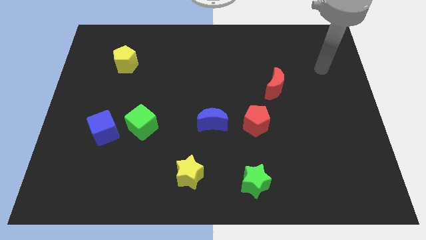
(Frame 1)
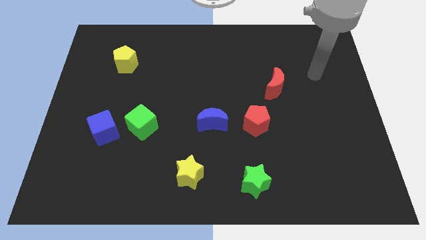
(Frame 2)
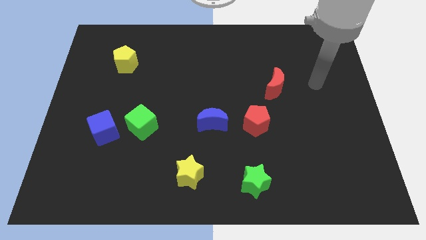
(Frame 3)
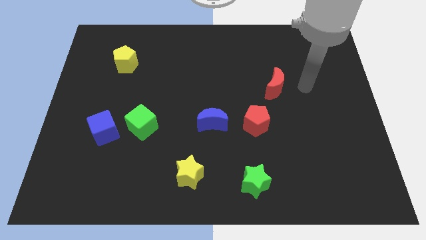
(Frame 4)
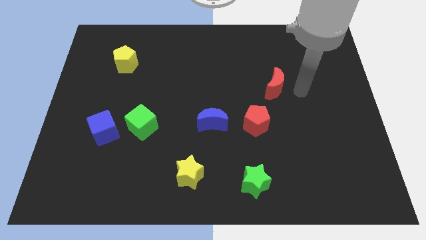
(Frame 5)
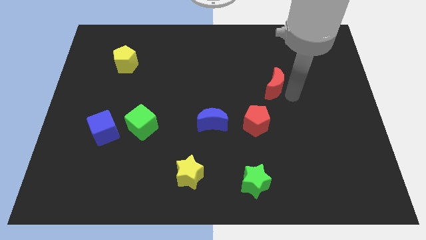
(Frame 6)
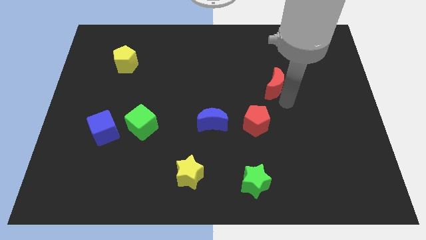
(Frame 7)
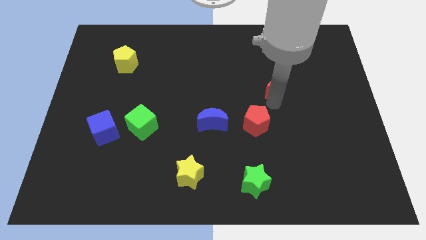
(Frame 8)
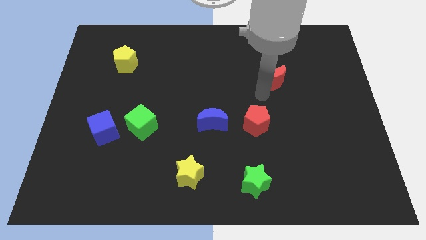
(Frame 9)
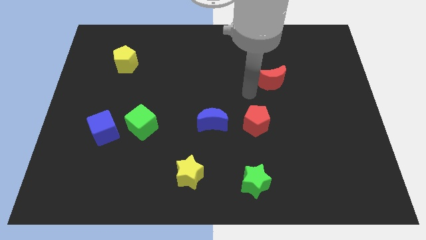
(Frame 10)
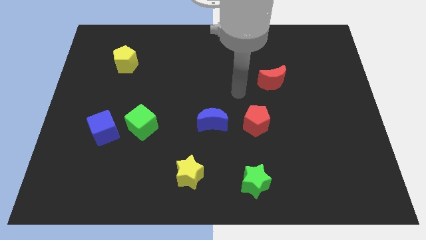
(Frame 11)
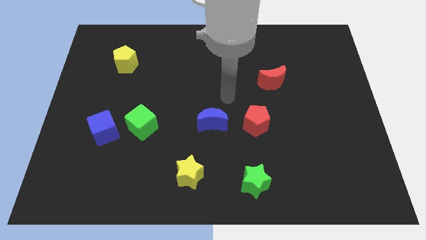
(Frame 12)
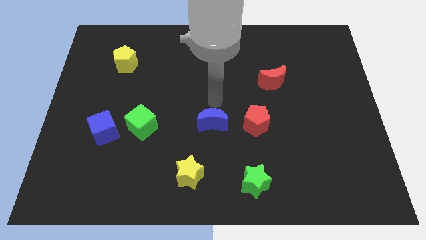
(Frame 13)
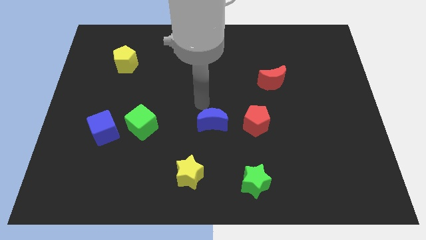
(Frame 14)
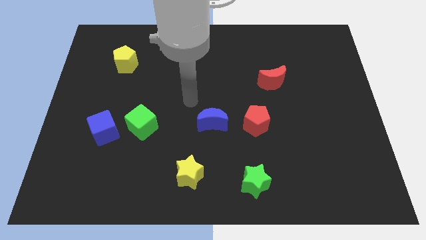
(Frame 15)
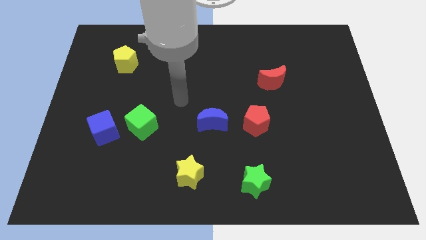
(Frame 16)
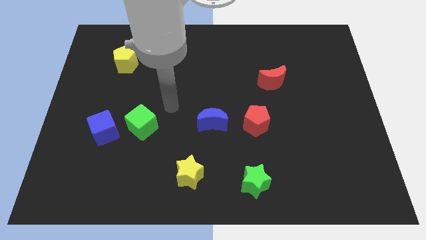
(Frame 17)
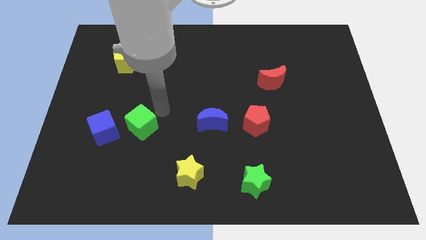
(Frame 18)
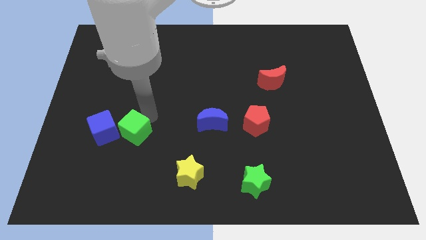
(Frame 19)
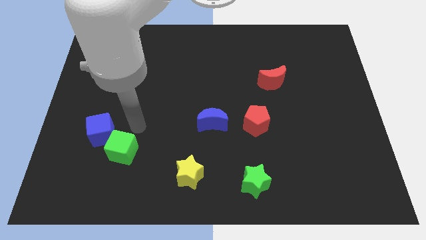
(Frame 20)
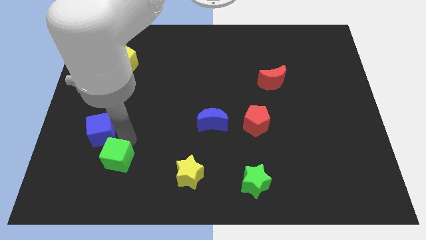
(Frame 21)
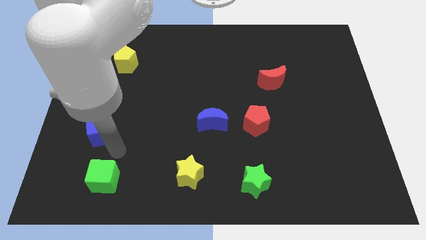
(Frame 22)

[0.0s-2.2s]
pull the blue cube apart from the green cube

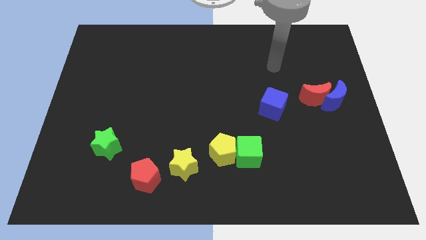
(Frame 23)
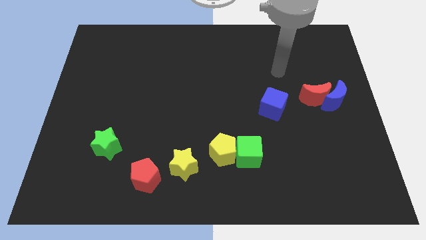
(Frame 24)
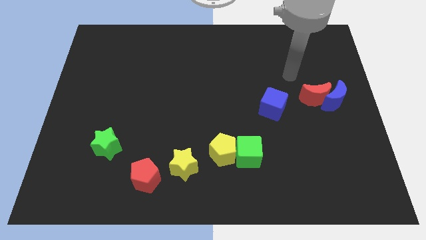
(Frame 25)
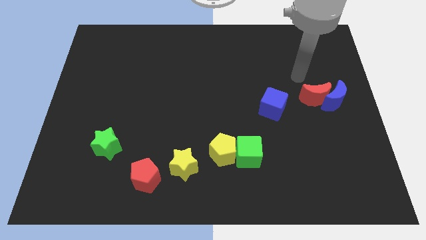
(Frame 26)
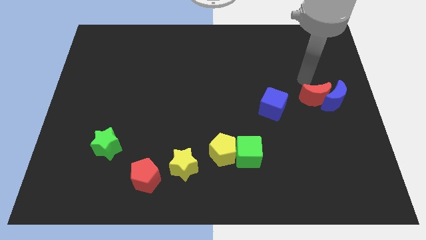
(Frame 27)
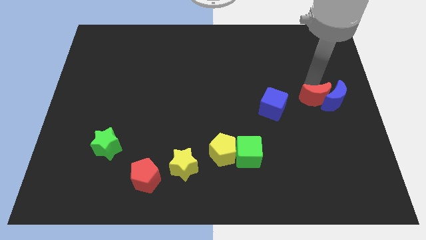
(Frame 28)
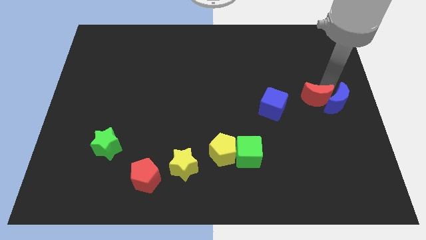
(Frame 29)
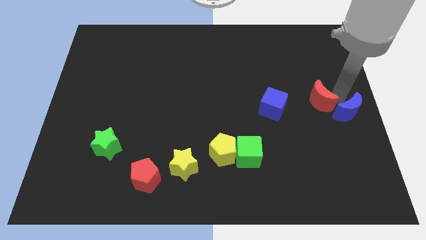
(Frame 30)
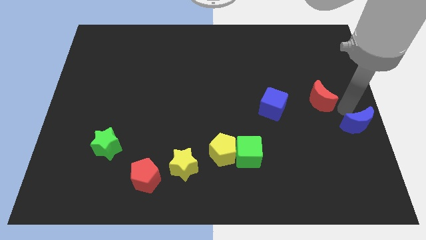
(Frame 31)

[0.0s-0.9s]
move the red moon away from the blue moon

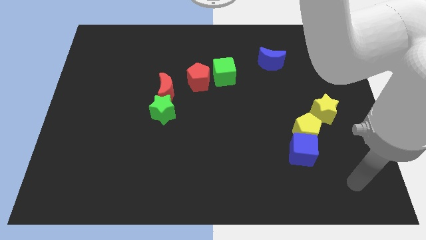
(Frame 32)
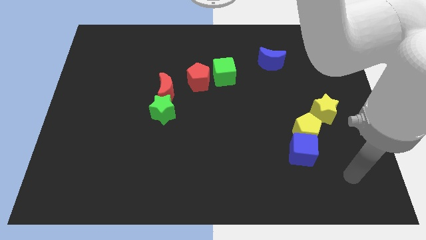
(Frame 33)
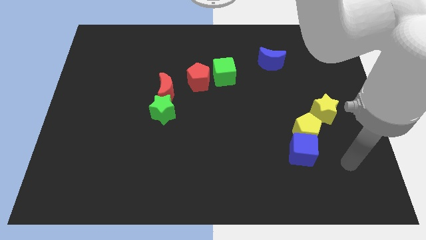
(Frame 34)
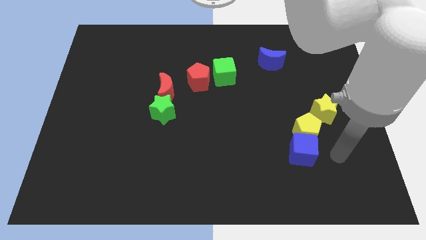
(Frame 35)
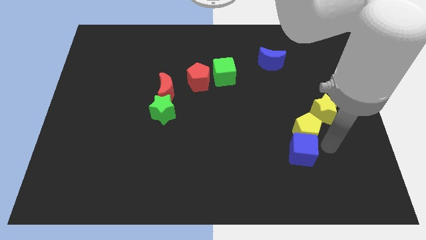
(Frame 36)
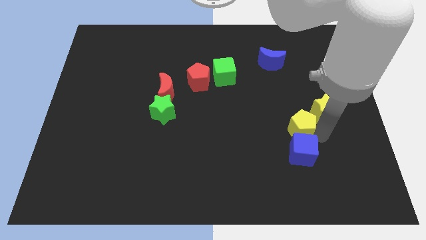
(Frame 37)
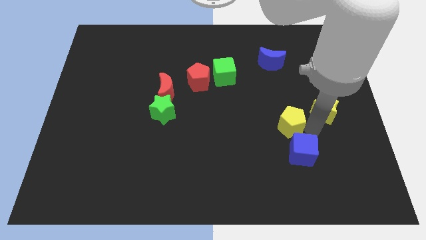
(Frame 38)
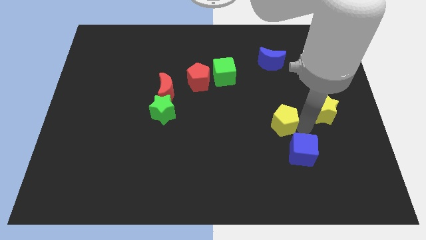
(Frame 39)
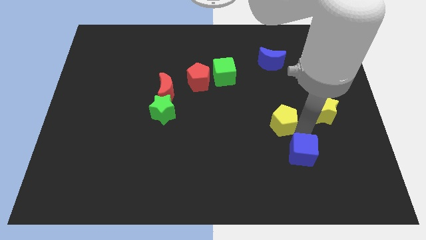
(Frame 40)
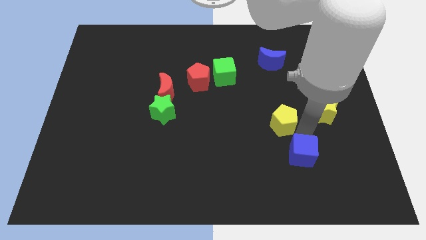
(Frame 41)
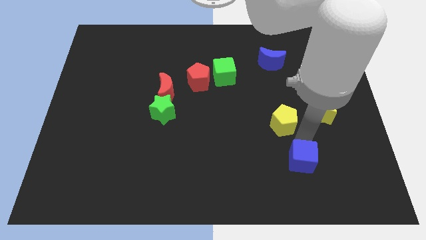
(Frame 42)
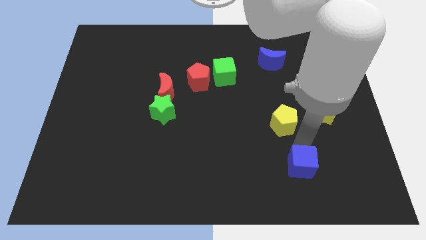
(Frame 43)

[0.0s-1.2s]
separate the blue cube from the yellow pentagon

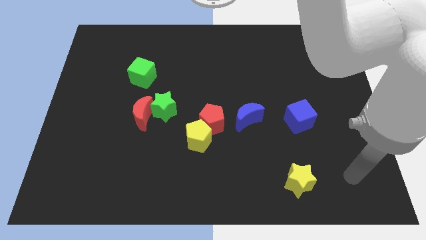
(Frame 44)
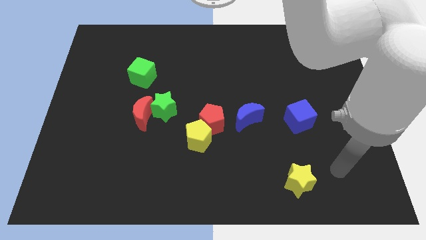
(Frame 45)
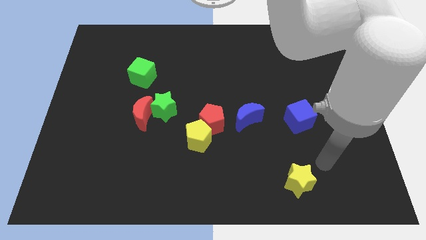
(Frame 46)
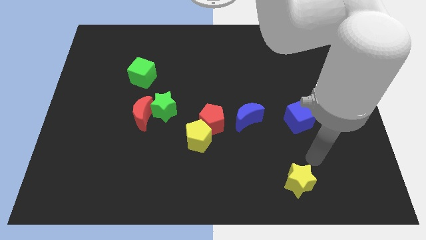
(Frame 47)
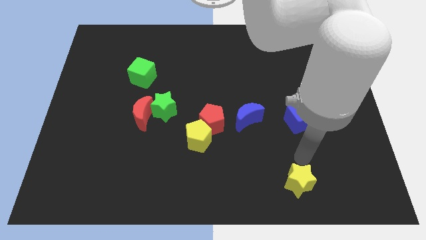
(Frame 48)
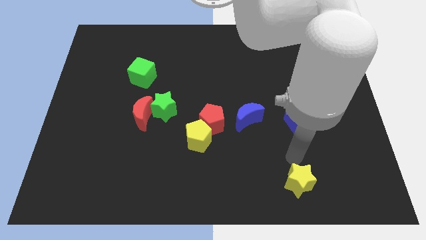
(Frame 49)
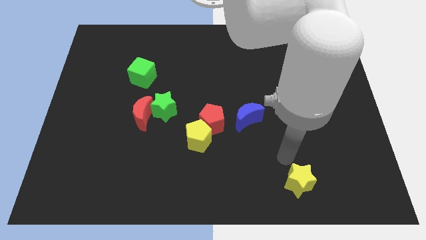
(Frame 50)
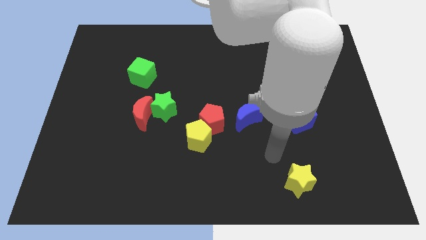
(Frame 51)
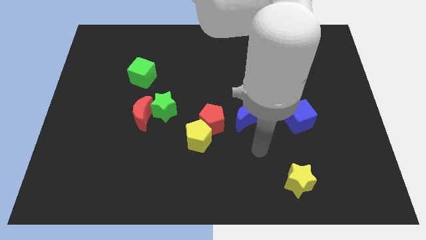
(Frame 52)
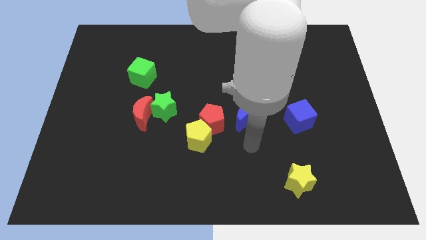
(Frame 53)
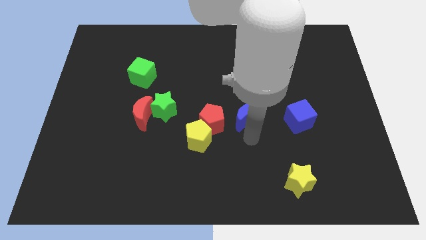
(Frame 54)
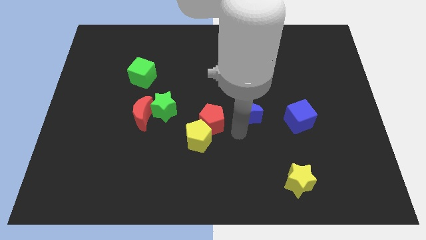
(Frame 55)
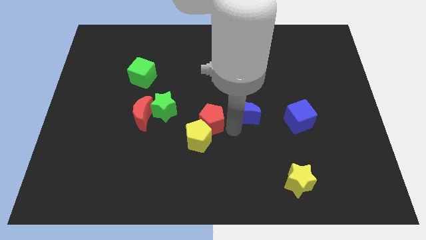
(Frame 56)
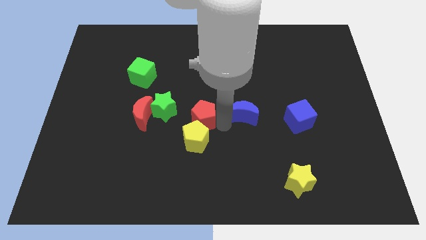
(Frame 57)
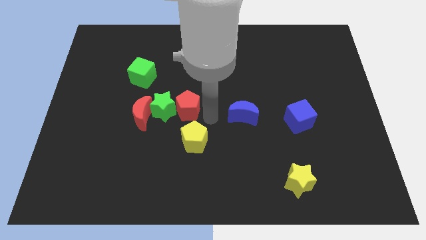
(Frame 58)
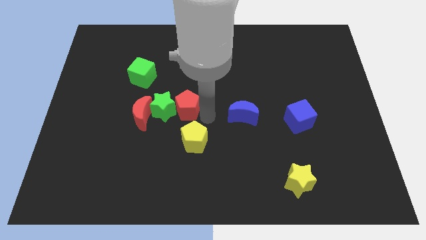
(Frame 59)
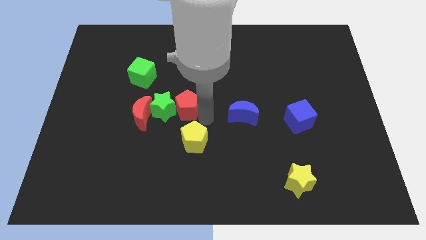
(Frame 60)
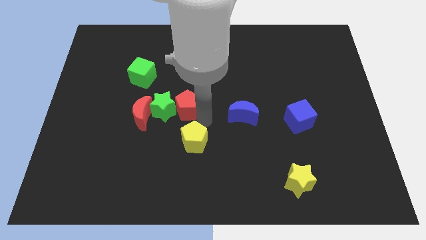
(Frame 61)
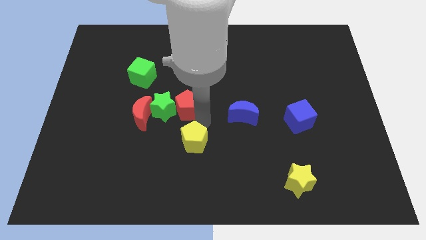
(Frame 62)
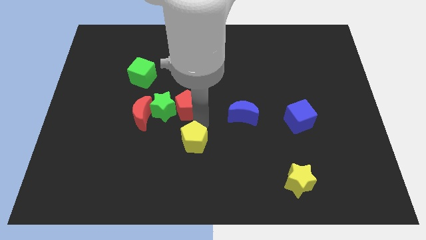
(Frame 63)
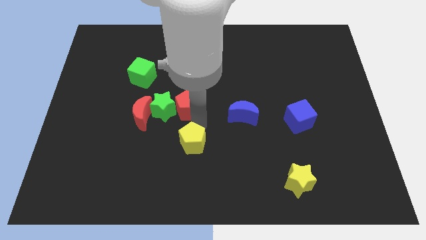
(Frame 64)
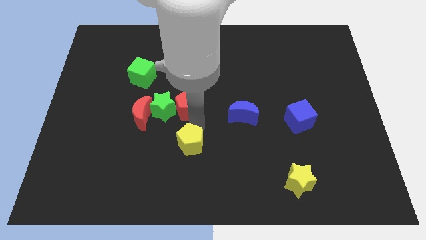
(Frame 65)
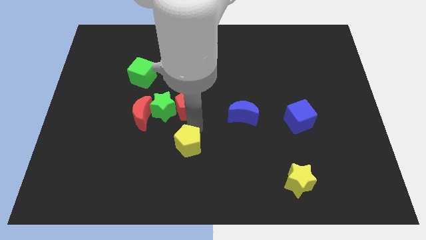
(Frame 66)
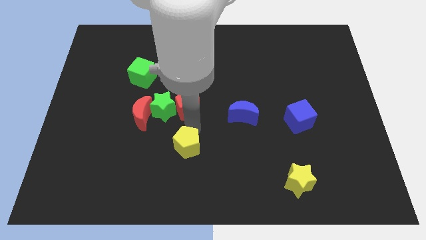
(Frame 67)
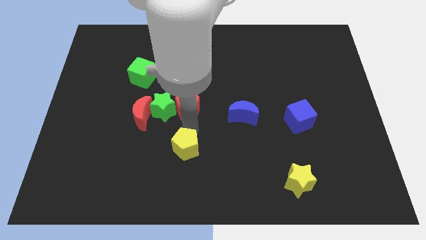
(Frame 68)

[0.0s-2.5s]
pull the yellow pentagon apart from the red pentagon

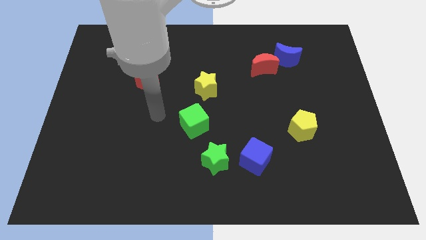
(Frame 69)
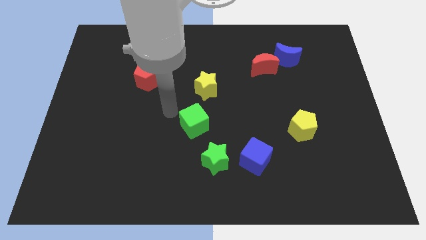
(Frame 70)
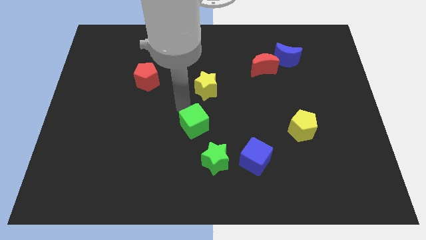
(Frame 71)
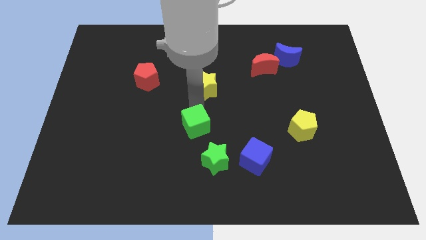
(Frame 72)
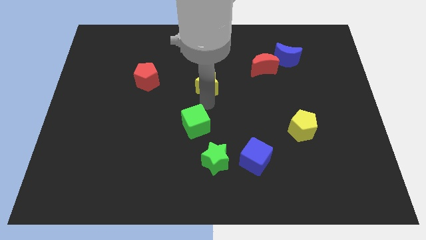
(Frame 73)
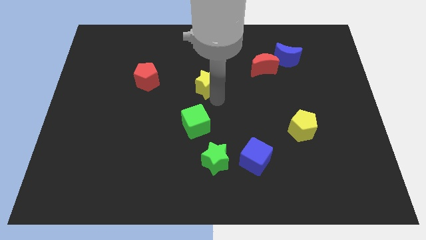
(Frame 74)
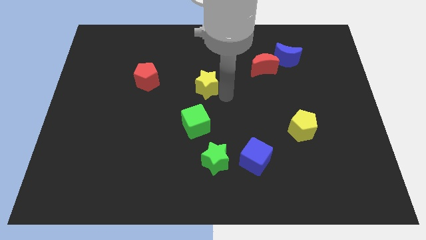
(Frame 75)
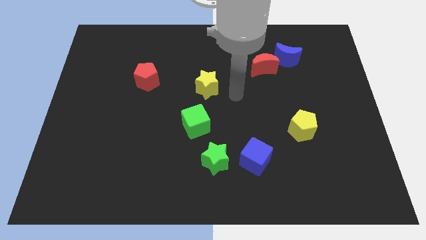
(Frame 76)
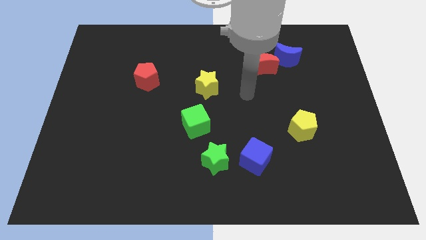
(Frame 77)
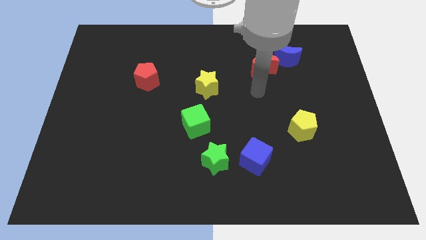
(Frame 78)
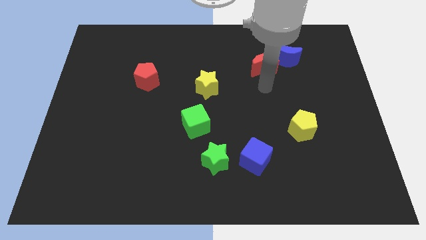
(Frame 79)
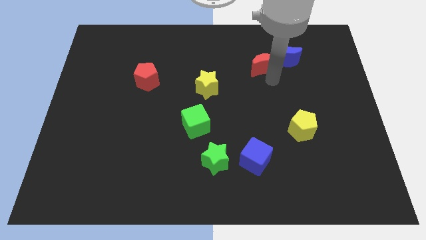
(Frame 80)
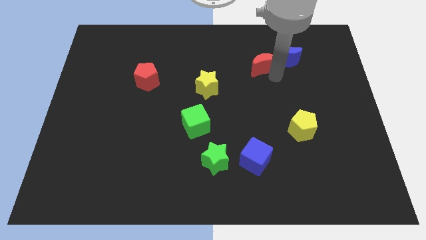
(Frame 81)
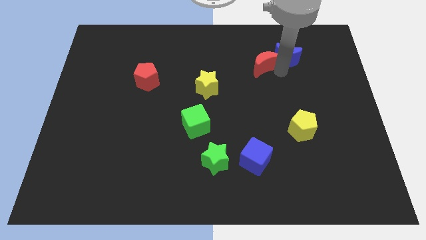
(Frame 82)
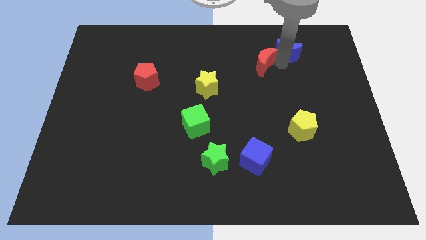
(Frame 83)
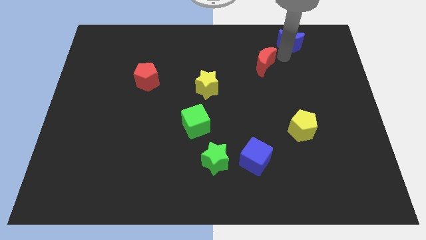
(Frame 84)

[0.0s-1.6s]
pull the red moon apart from the blue moon

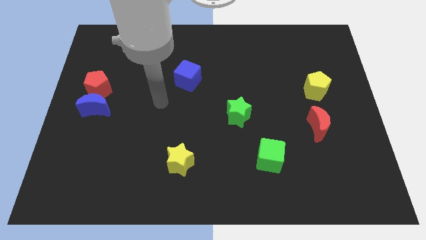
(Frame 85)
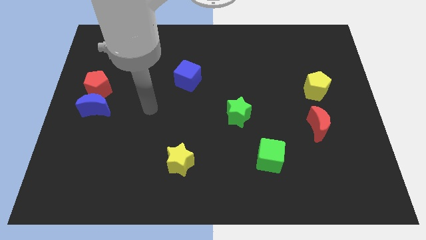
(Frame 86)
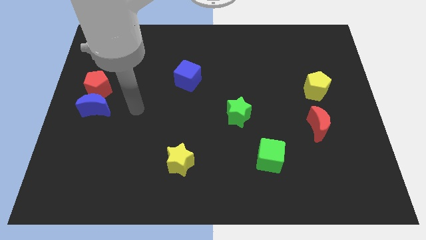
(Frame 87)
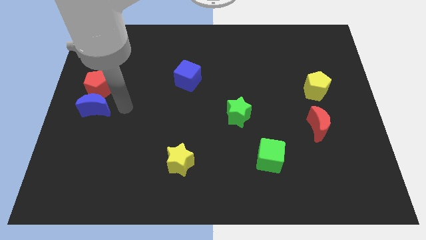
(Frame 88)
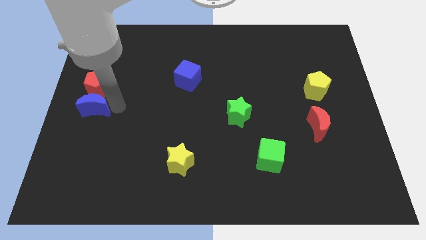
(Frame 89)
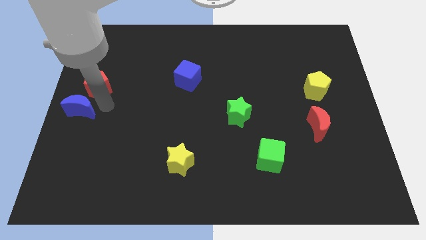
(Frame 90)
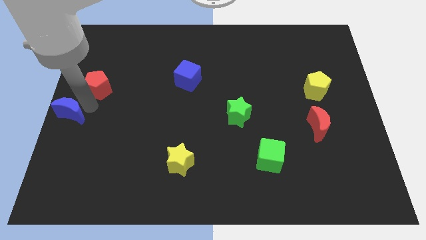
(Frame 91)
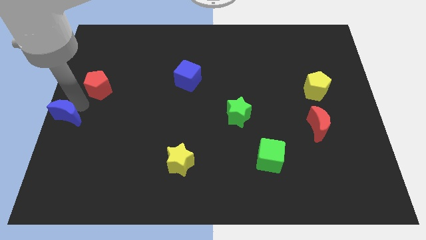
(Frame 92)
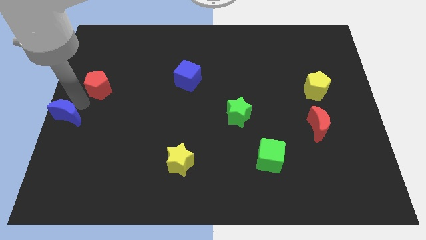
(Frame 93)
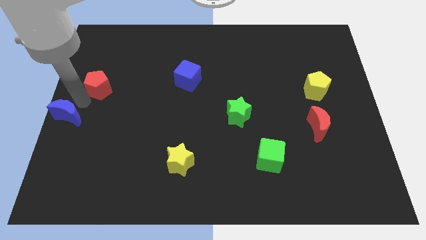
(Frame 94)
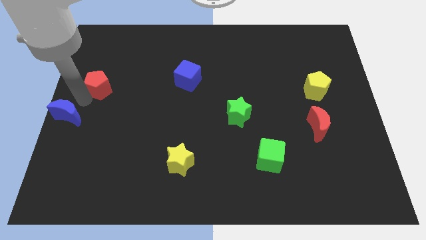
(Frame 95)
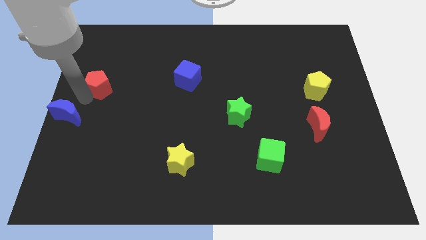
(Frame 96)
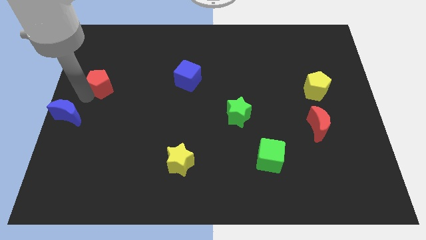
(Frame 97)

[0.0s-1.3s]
move the red pentagon away from the blue moon
